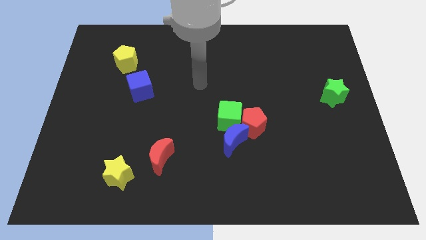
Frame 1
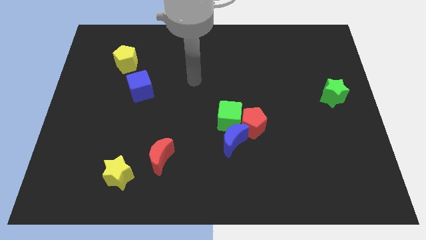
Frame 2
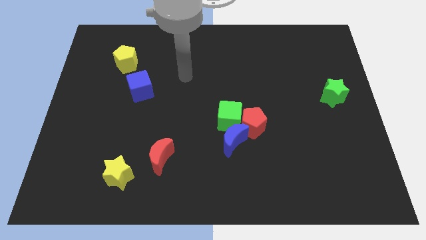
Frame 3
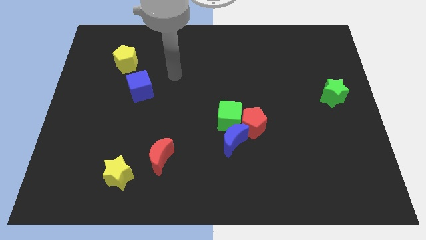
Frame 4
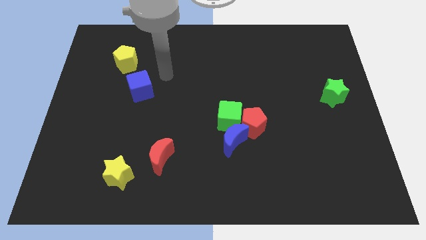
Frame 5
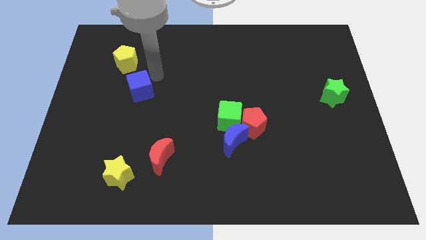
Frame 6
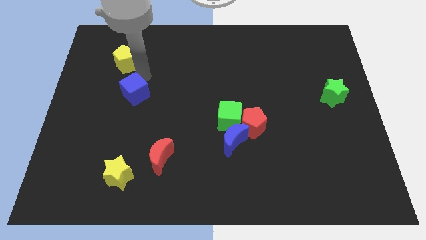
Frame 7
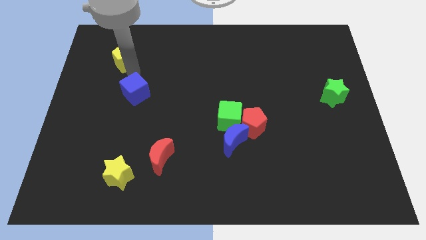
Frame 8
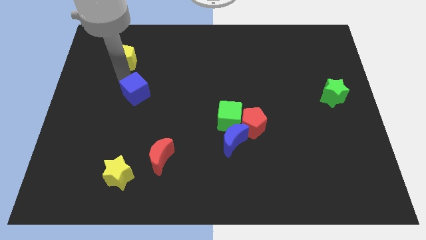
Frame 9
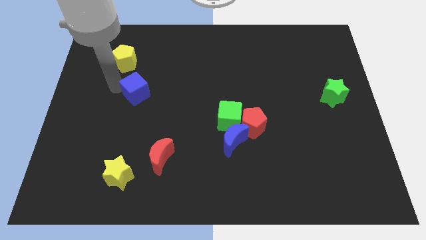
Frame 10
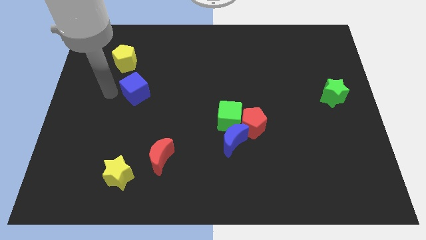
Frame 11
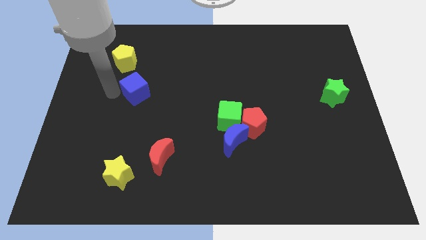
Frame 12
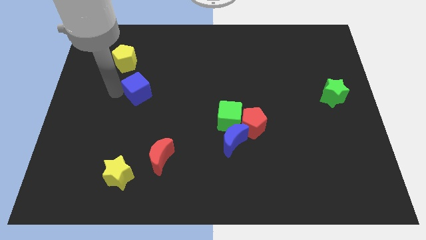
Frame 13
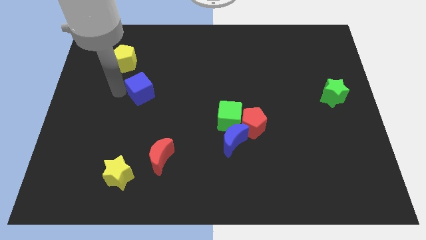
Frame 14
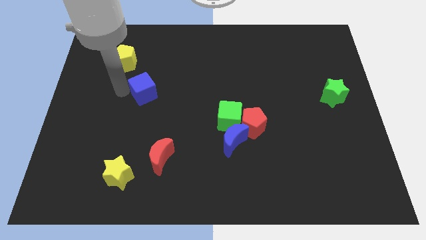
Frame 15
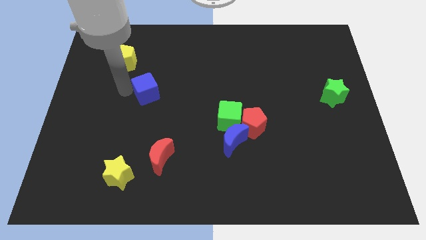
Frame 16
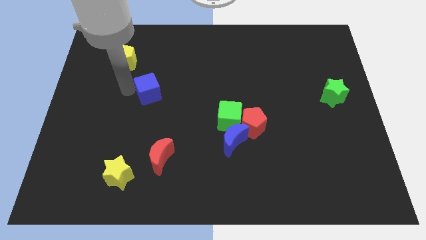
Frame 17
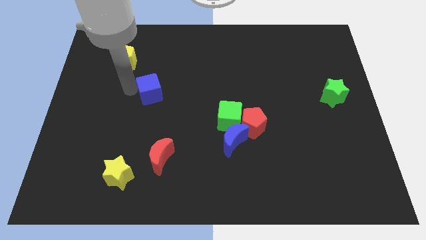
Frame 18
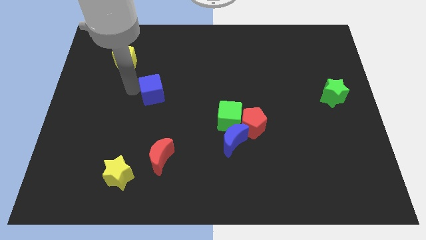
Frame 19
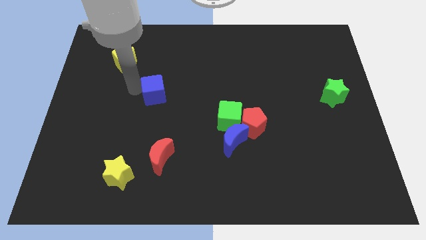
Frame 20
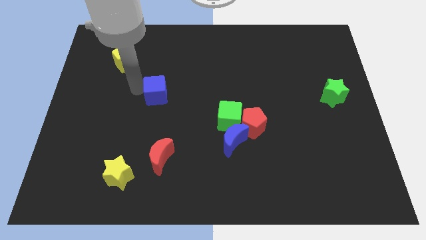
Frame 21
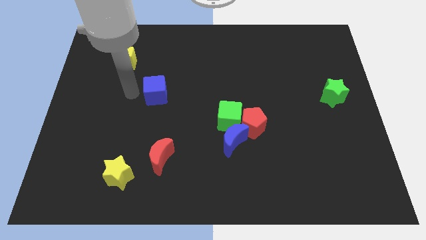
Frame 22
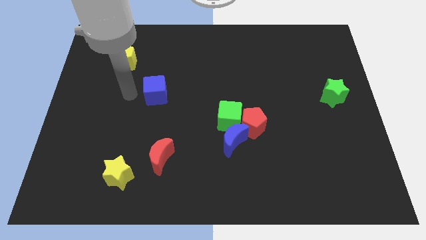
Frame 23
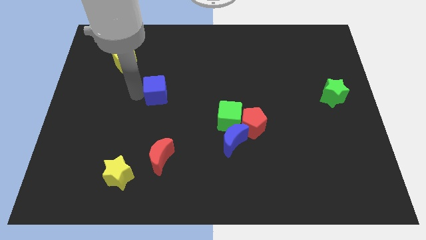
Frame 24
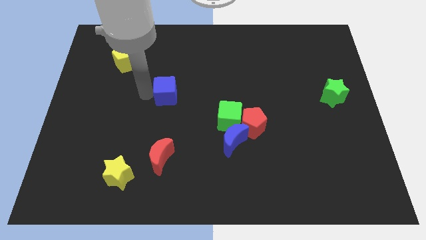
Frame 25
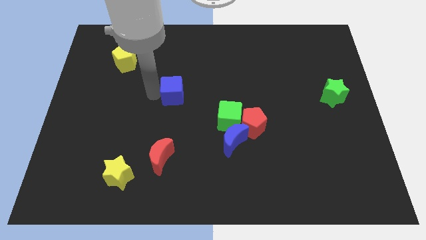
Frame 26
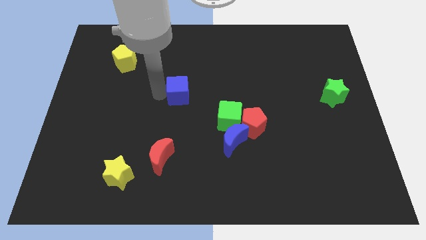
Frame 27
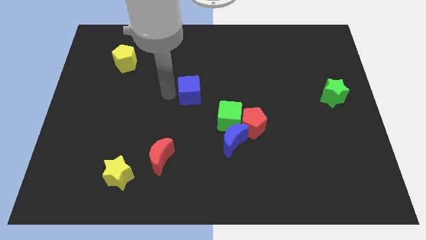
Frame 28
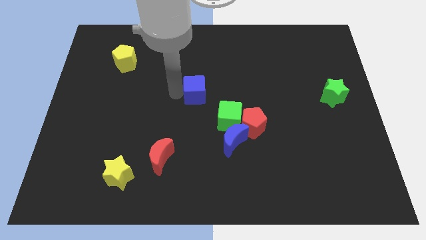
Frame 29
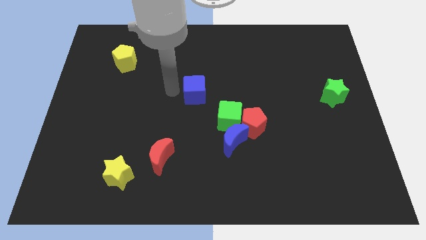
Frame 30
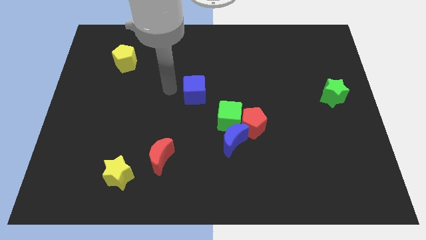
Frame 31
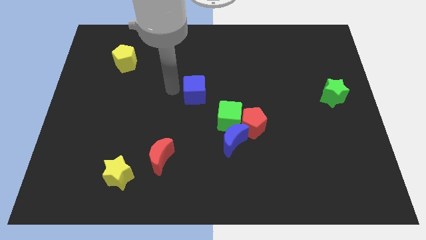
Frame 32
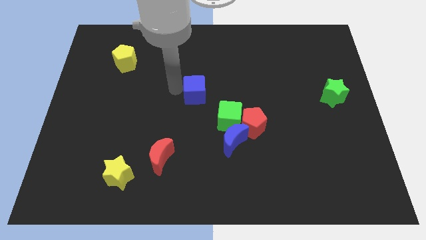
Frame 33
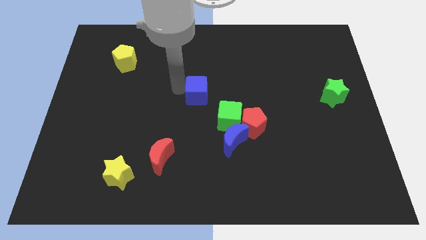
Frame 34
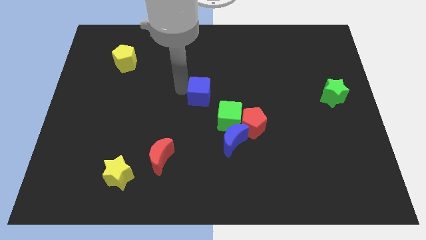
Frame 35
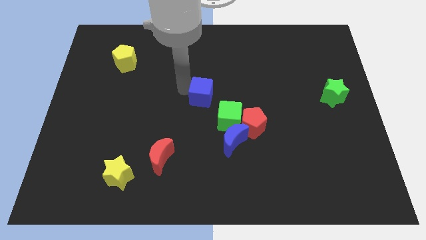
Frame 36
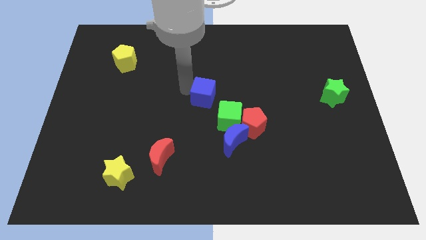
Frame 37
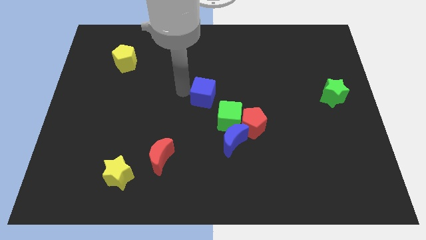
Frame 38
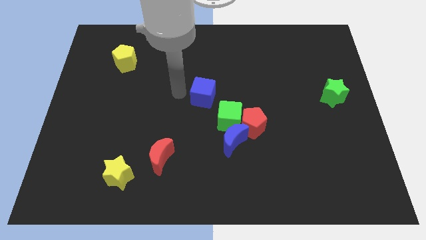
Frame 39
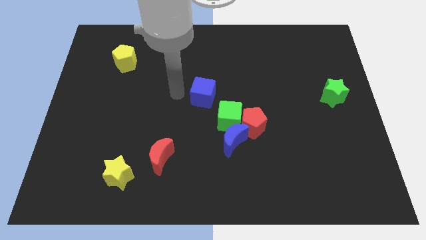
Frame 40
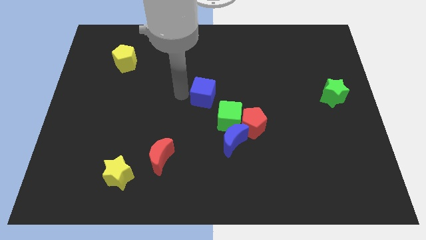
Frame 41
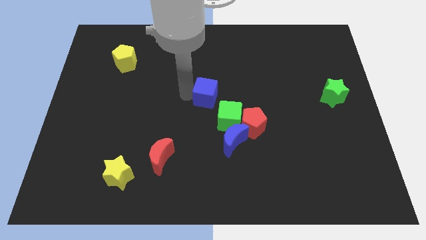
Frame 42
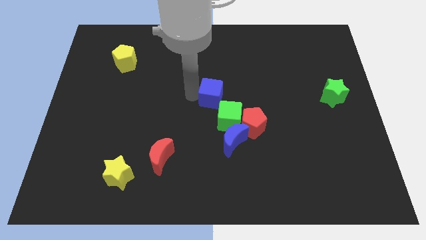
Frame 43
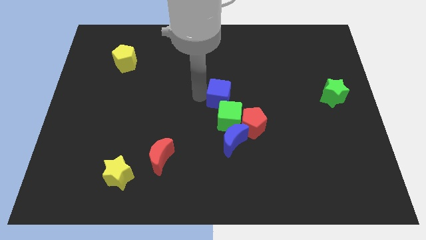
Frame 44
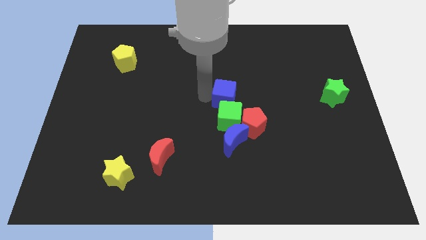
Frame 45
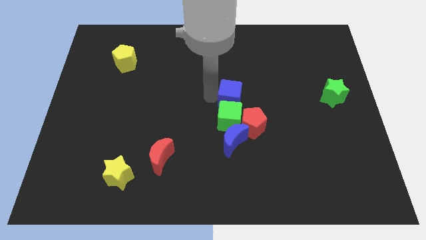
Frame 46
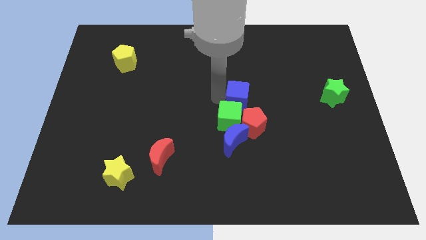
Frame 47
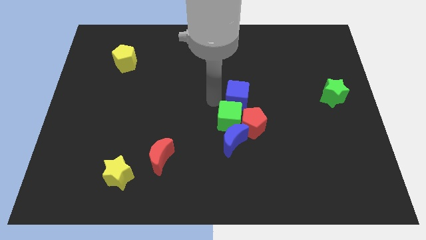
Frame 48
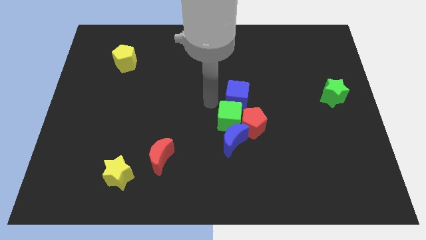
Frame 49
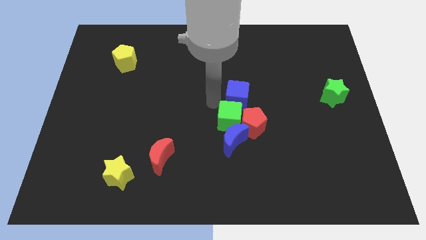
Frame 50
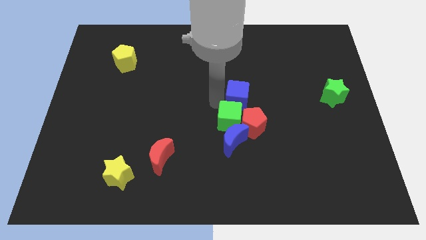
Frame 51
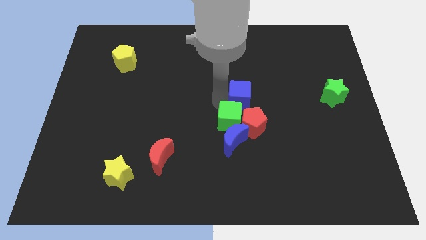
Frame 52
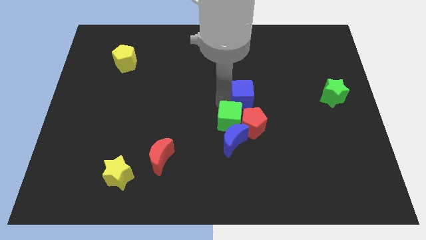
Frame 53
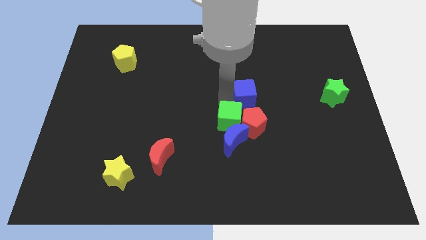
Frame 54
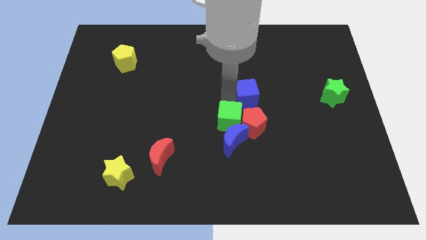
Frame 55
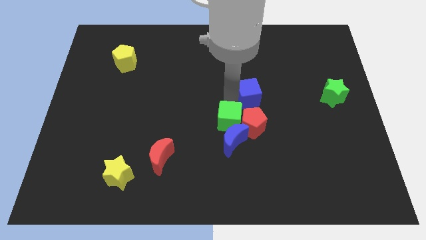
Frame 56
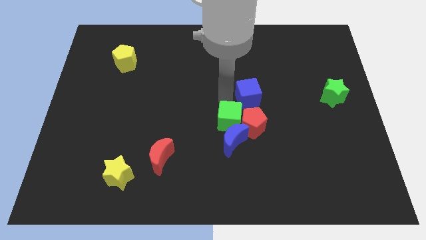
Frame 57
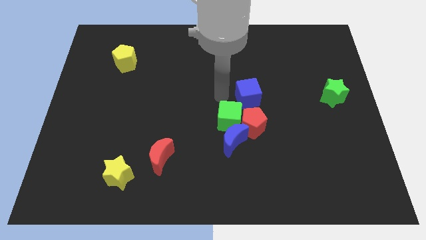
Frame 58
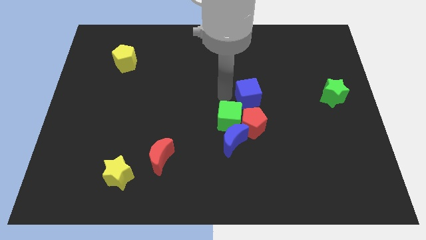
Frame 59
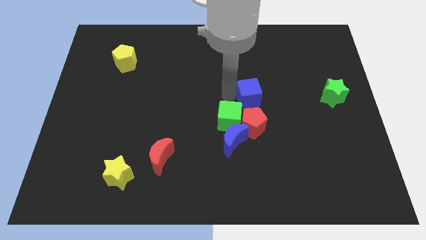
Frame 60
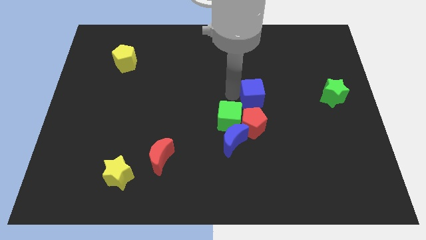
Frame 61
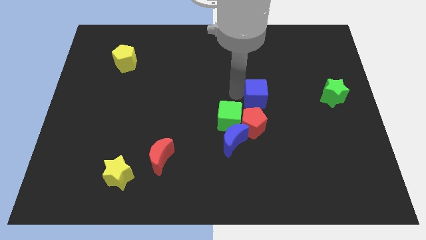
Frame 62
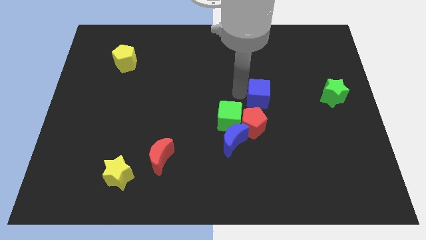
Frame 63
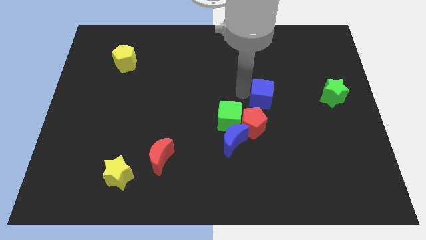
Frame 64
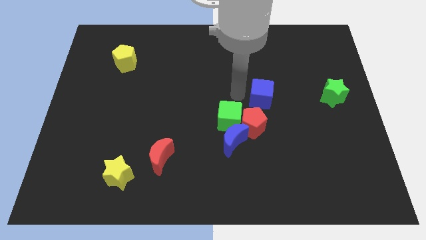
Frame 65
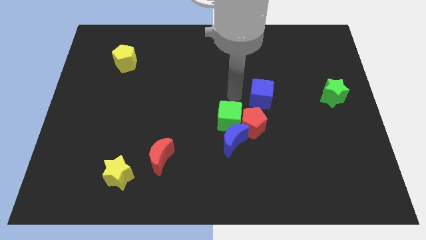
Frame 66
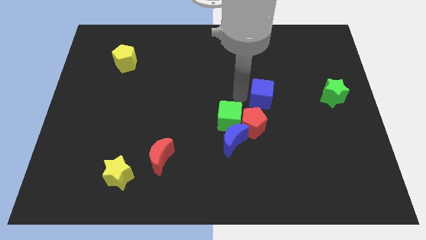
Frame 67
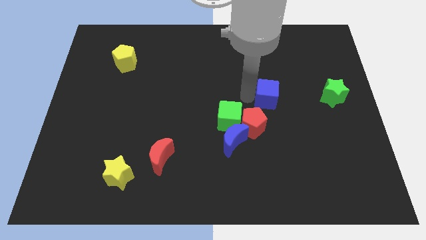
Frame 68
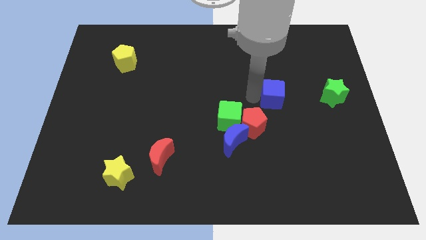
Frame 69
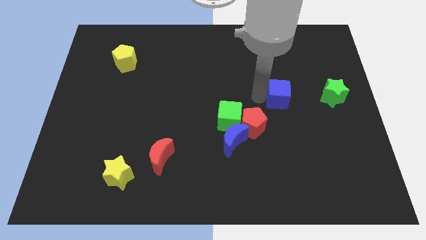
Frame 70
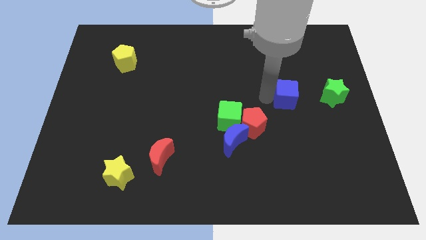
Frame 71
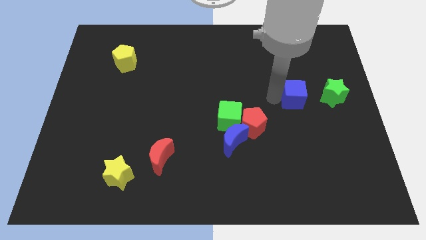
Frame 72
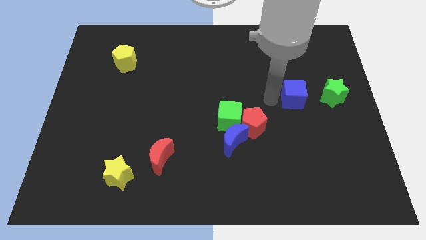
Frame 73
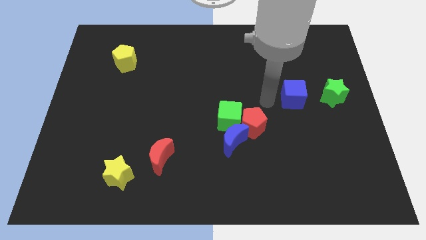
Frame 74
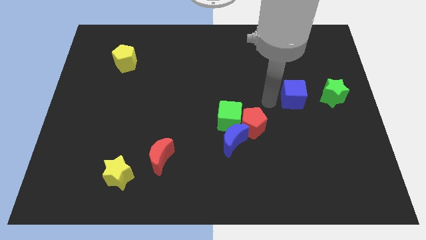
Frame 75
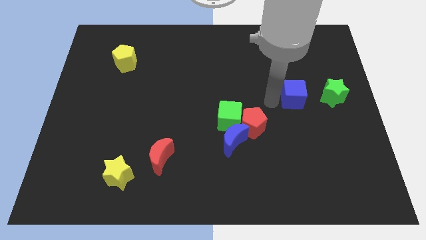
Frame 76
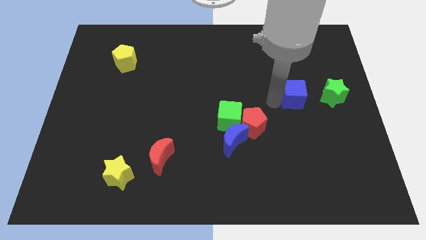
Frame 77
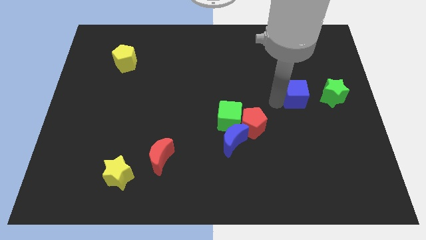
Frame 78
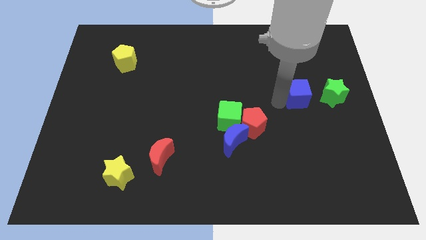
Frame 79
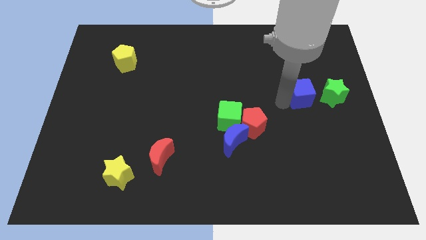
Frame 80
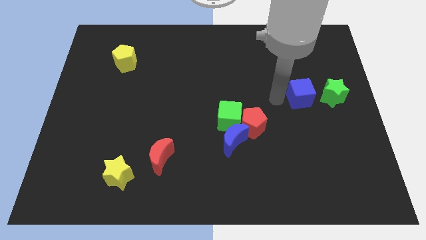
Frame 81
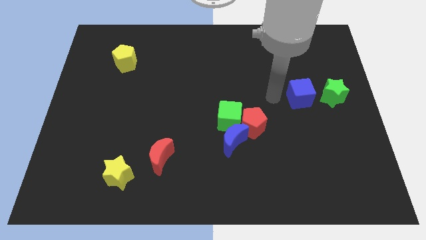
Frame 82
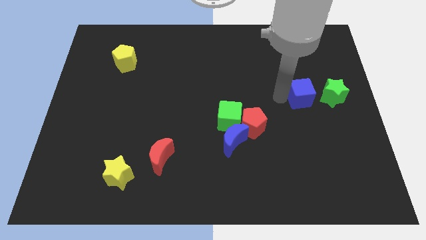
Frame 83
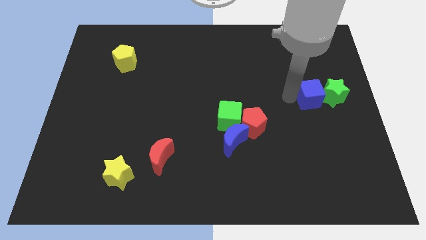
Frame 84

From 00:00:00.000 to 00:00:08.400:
push the blue cube next to the green star
